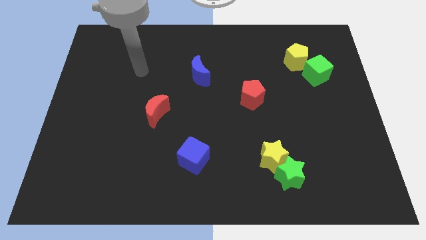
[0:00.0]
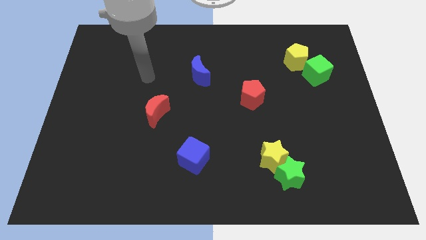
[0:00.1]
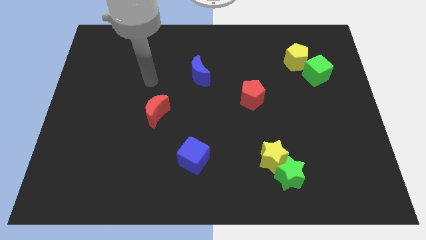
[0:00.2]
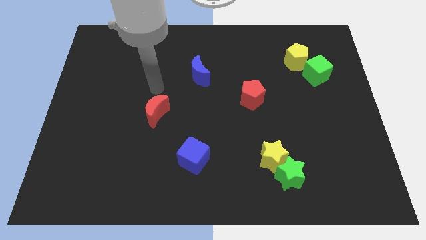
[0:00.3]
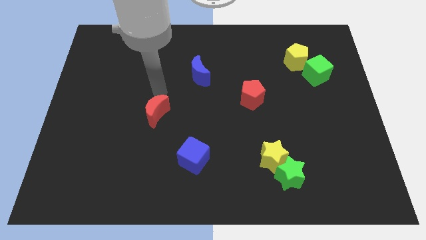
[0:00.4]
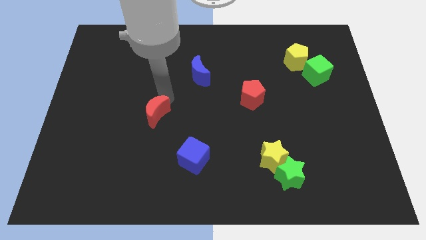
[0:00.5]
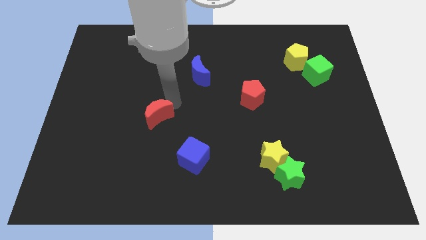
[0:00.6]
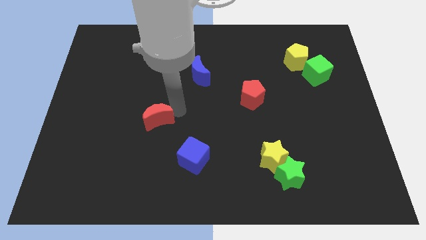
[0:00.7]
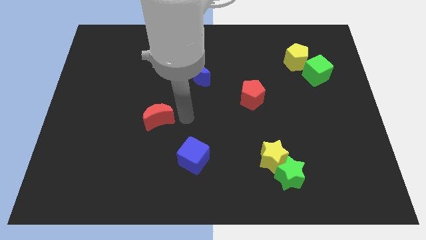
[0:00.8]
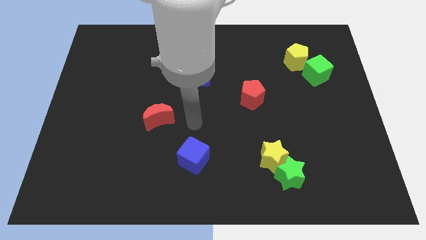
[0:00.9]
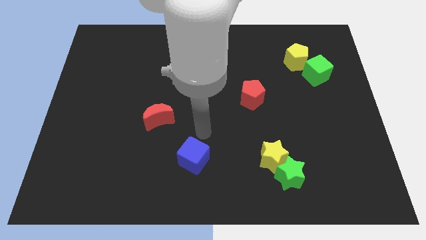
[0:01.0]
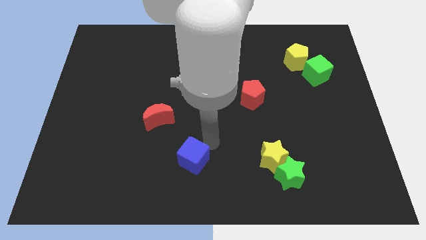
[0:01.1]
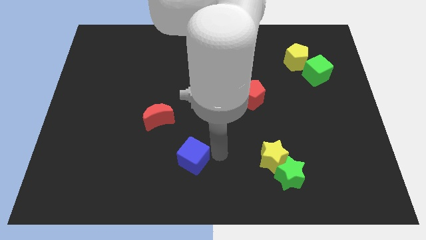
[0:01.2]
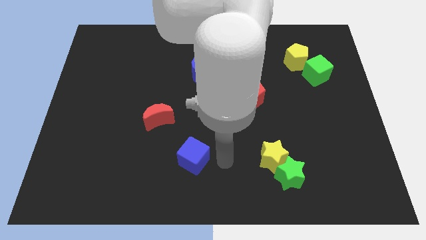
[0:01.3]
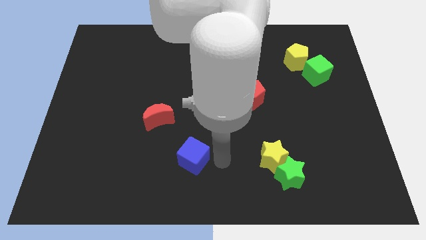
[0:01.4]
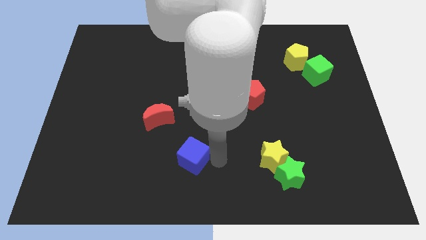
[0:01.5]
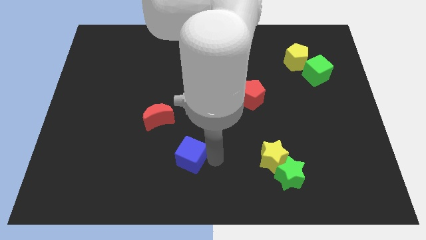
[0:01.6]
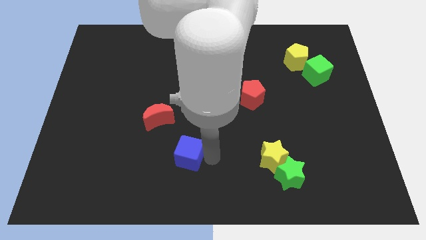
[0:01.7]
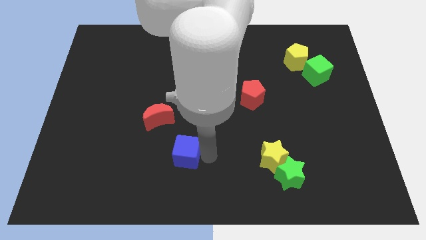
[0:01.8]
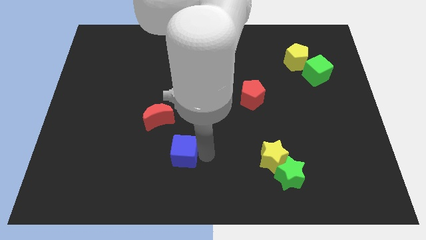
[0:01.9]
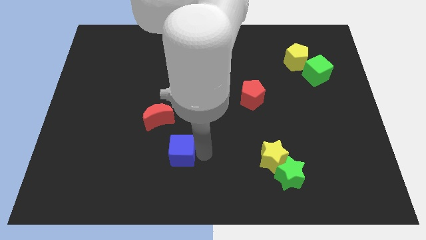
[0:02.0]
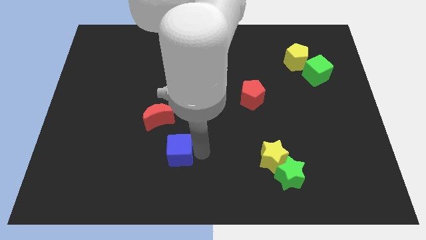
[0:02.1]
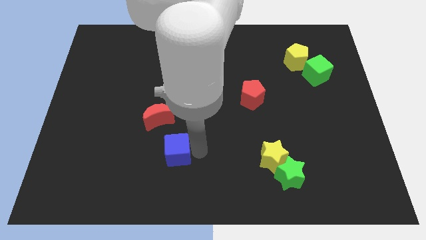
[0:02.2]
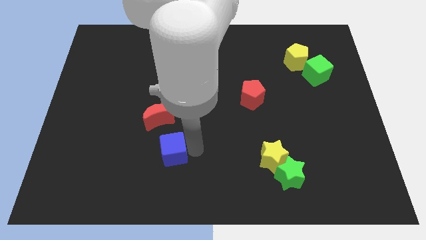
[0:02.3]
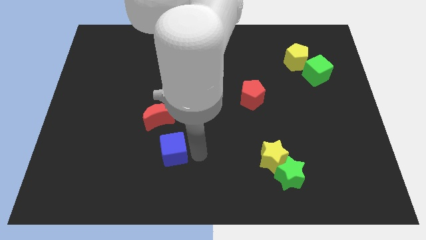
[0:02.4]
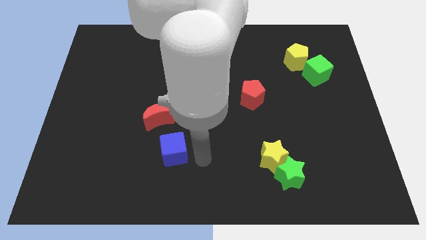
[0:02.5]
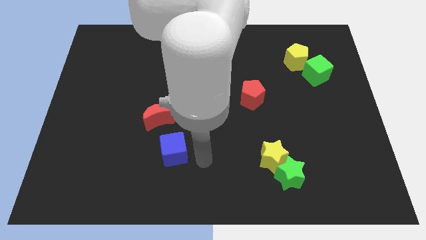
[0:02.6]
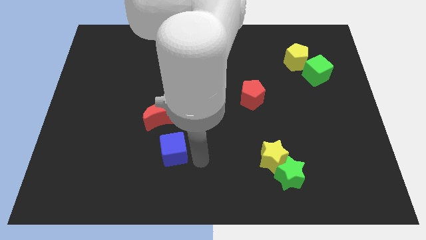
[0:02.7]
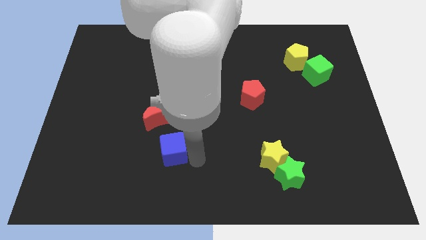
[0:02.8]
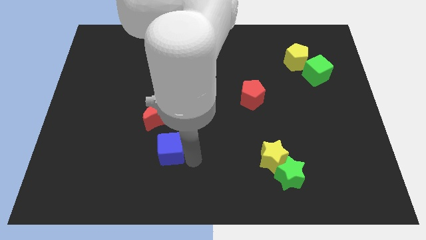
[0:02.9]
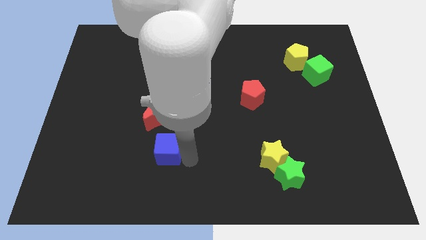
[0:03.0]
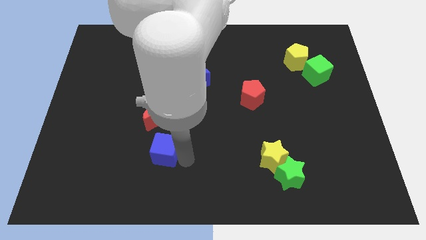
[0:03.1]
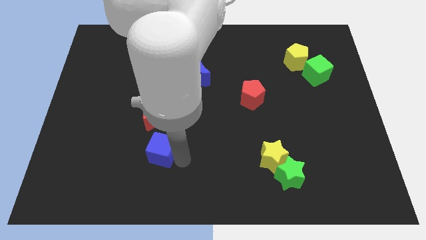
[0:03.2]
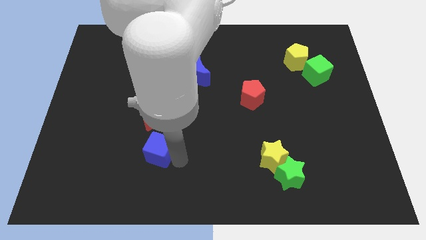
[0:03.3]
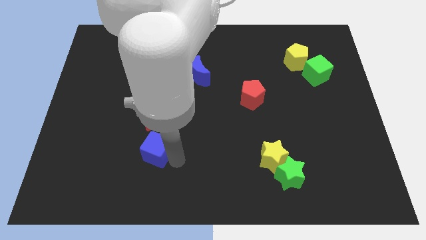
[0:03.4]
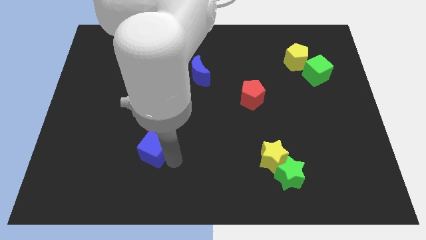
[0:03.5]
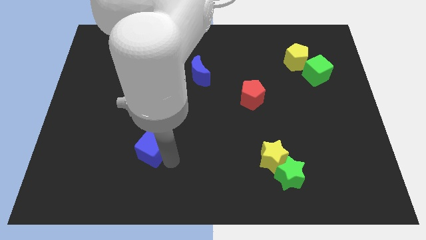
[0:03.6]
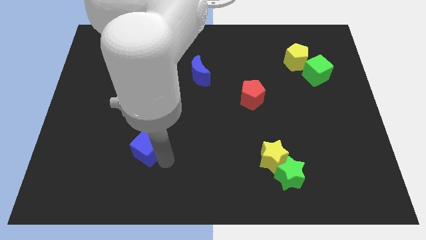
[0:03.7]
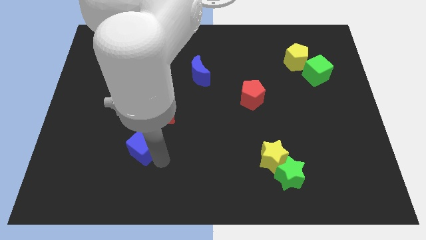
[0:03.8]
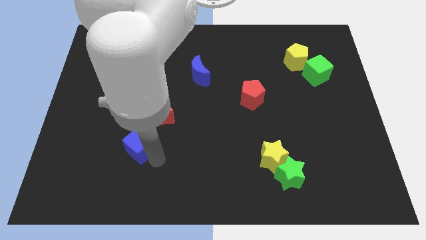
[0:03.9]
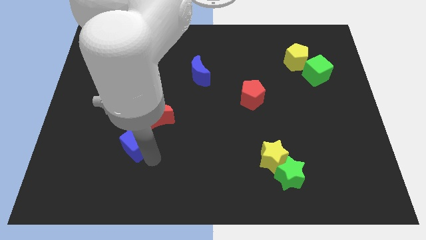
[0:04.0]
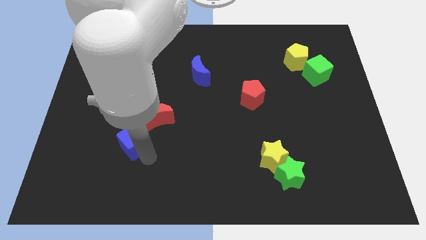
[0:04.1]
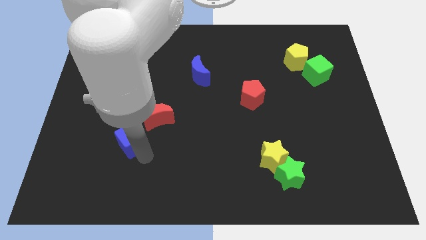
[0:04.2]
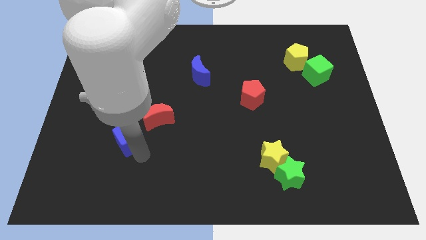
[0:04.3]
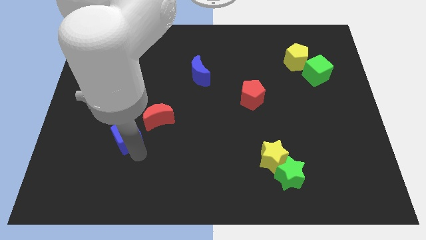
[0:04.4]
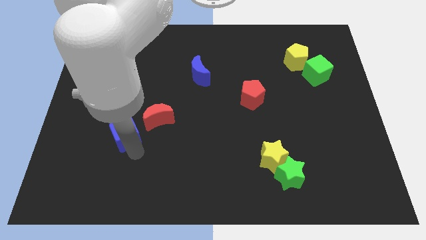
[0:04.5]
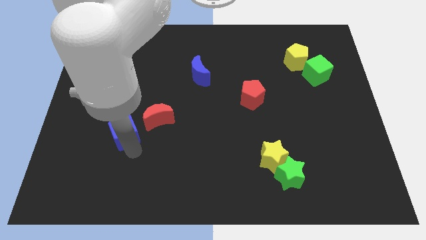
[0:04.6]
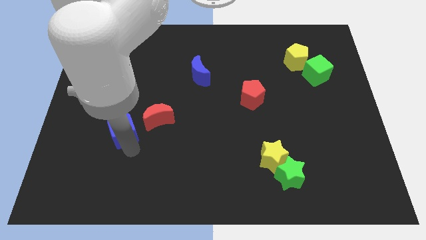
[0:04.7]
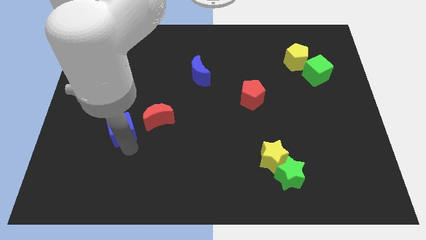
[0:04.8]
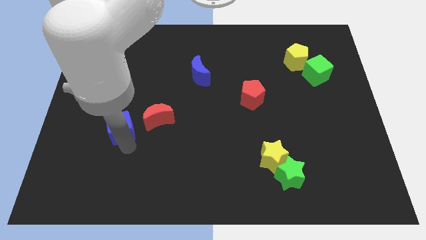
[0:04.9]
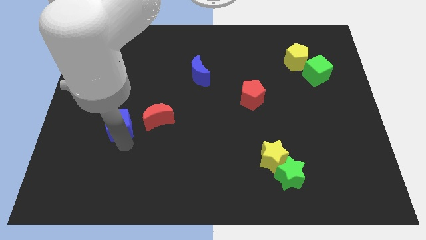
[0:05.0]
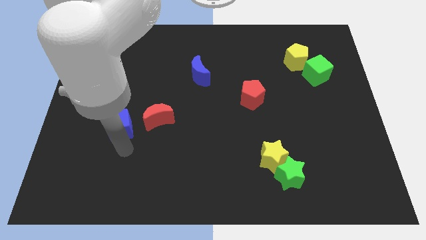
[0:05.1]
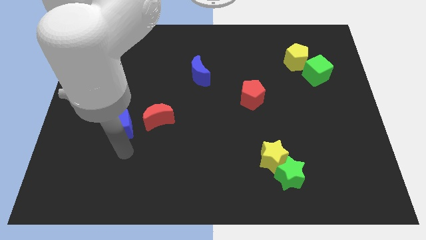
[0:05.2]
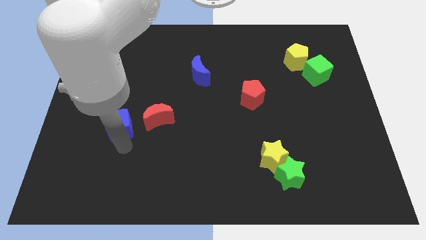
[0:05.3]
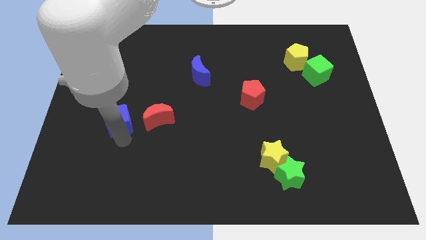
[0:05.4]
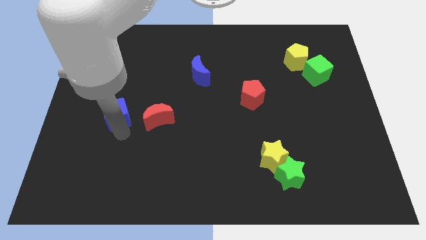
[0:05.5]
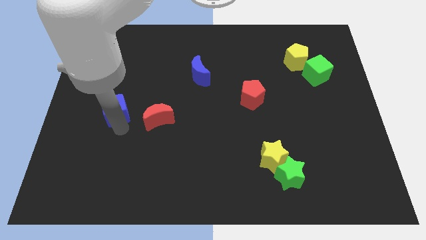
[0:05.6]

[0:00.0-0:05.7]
push the blue cube upwards and to the left diagonally

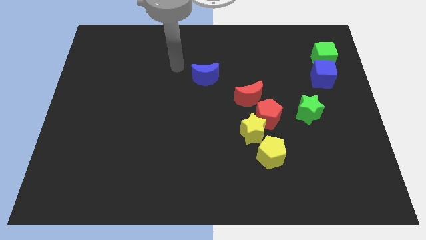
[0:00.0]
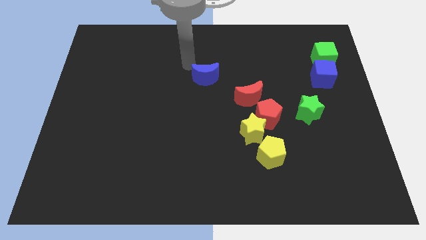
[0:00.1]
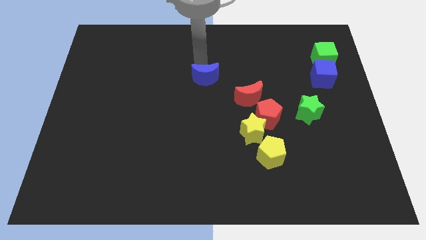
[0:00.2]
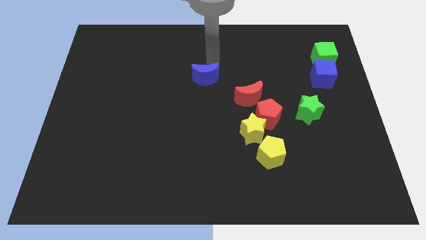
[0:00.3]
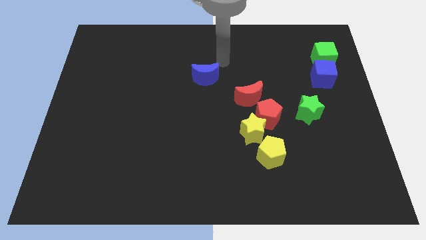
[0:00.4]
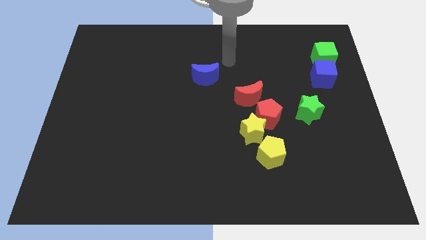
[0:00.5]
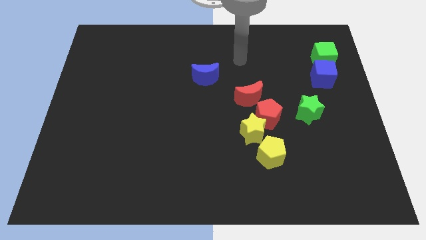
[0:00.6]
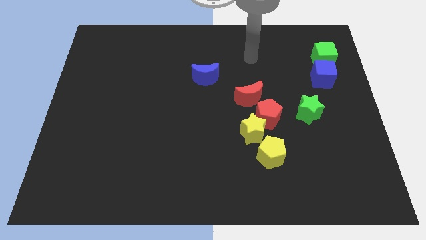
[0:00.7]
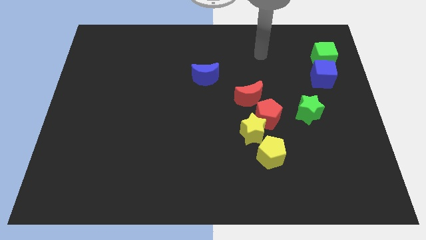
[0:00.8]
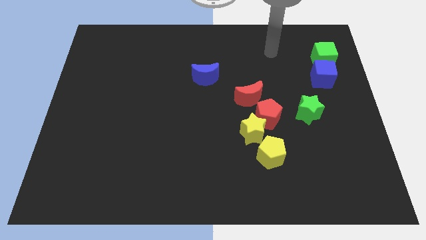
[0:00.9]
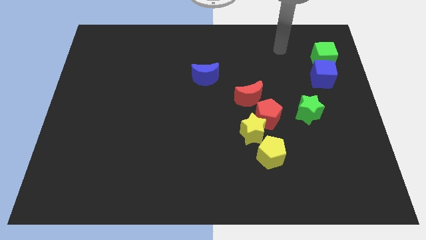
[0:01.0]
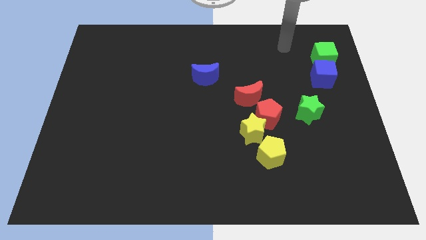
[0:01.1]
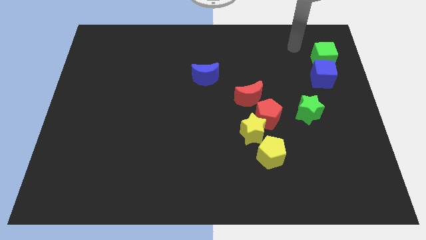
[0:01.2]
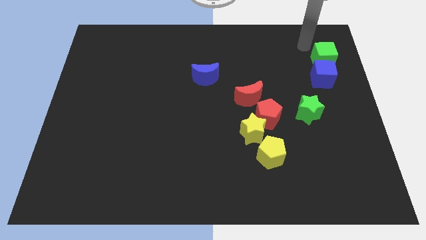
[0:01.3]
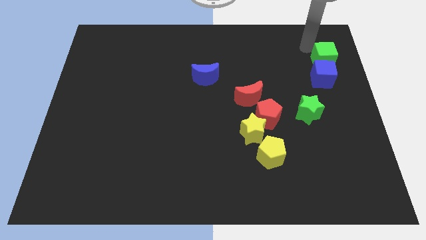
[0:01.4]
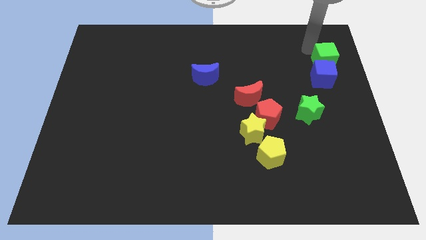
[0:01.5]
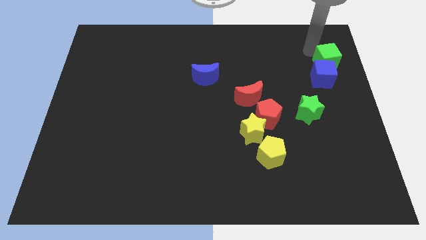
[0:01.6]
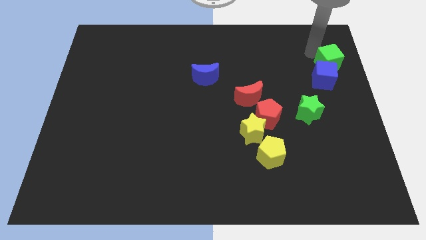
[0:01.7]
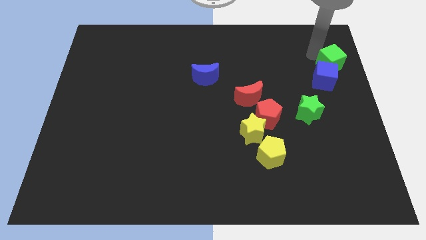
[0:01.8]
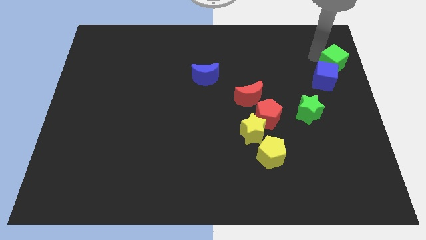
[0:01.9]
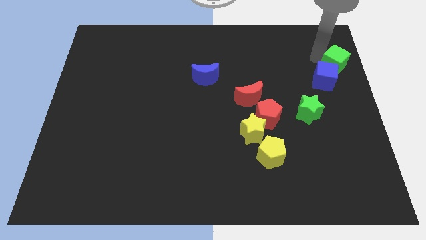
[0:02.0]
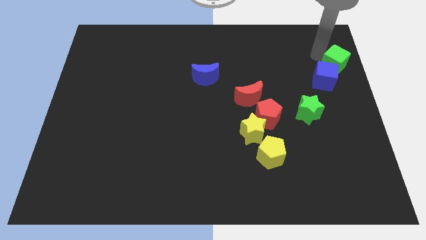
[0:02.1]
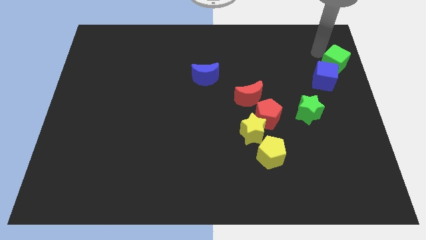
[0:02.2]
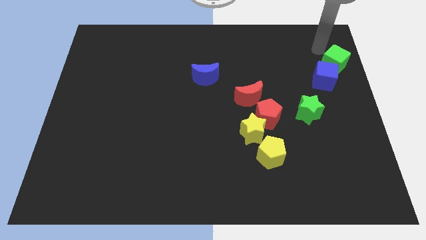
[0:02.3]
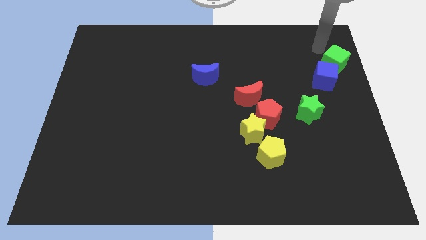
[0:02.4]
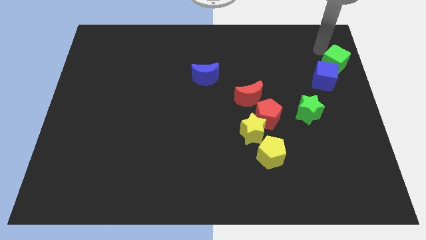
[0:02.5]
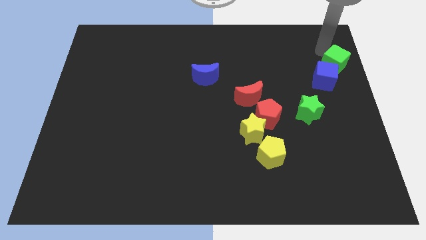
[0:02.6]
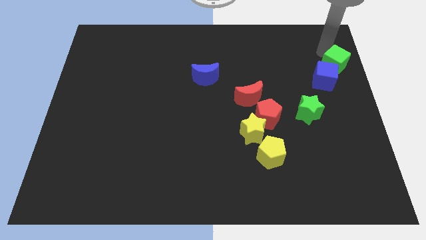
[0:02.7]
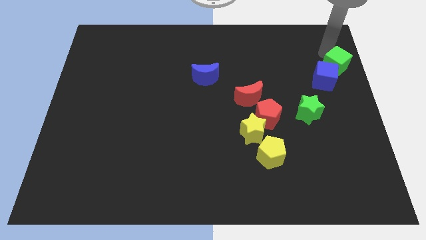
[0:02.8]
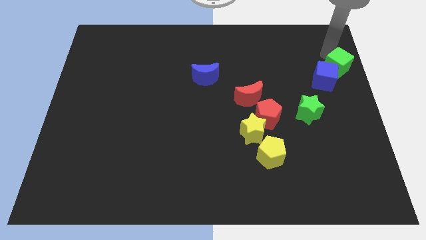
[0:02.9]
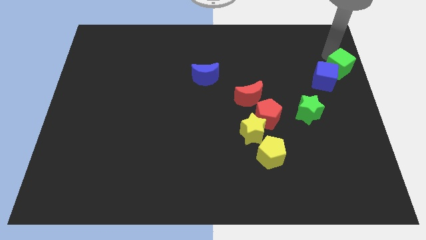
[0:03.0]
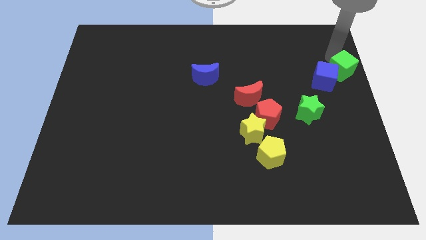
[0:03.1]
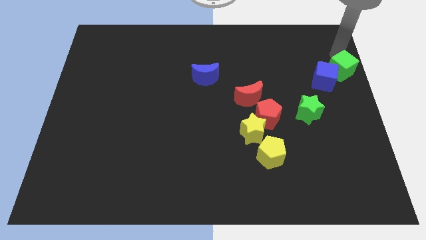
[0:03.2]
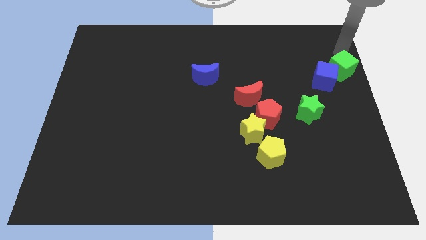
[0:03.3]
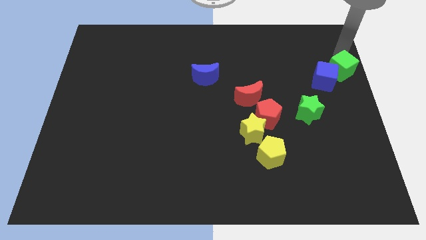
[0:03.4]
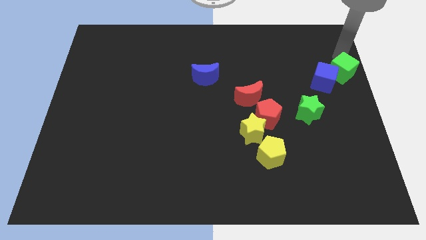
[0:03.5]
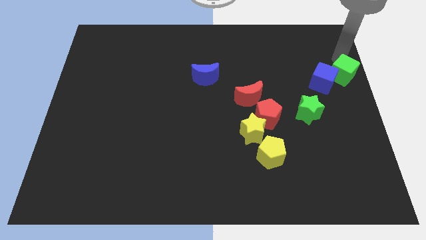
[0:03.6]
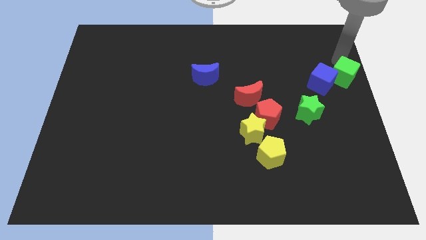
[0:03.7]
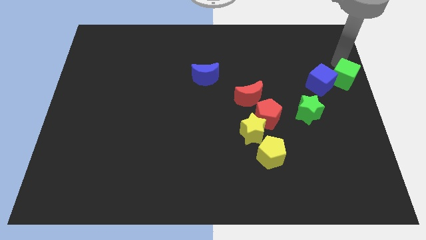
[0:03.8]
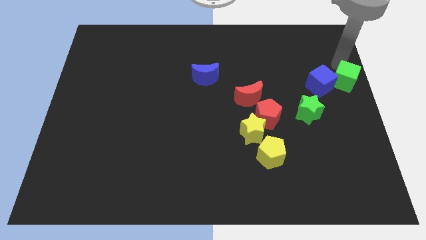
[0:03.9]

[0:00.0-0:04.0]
slide the green cube downwards a bit
